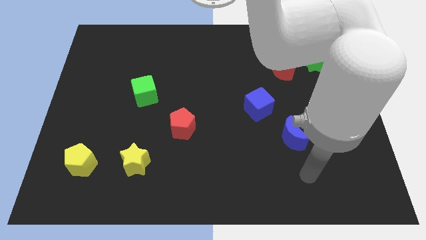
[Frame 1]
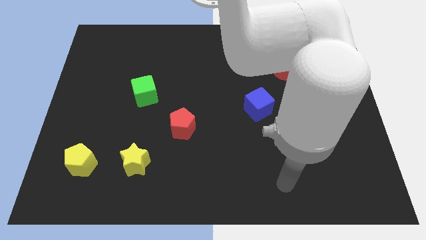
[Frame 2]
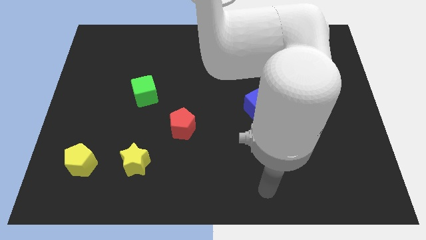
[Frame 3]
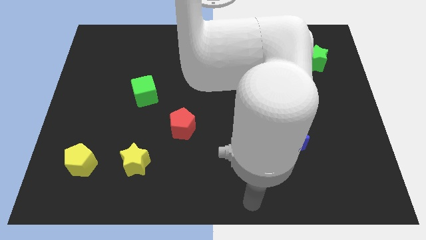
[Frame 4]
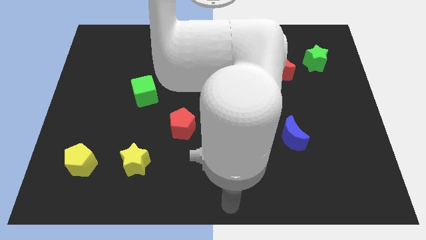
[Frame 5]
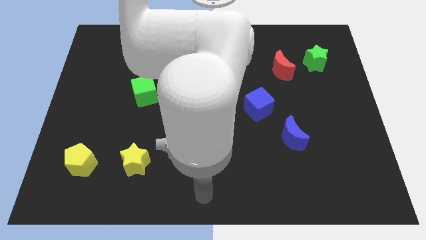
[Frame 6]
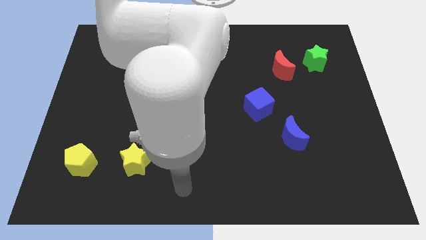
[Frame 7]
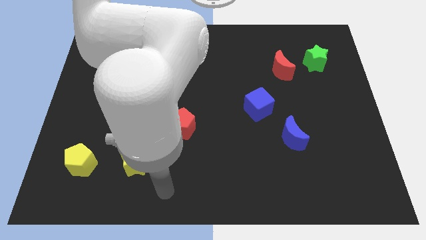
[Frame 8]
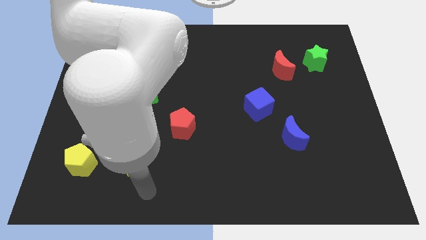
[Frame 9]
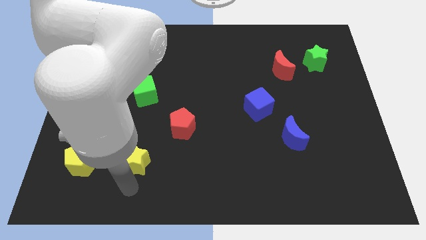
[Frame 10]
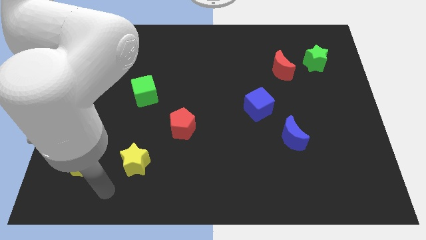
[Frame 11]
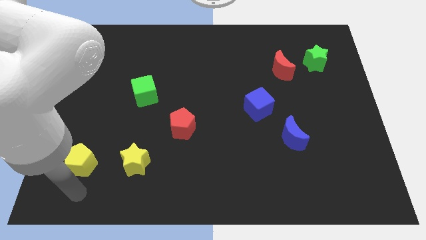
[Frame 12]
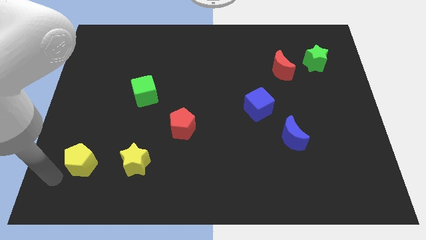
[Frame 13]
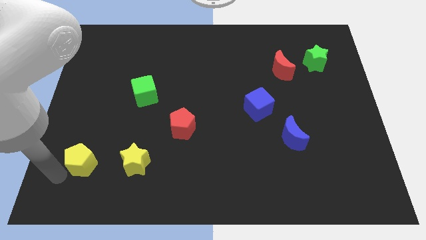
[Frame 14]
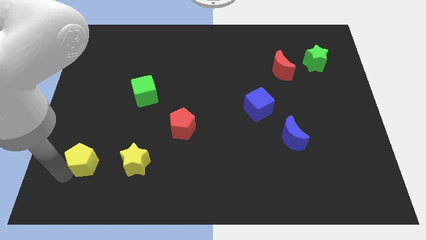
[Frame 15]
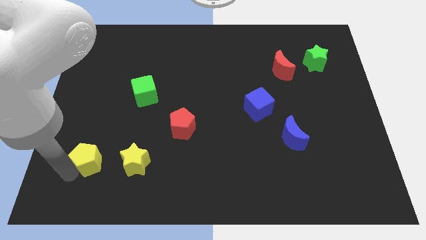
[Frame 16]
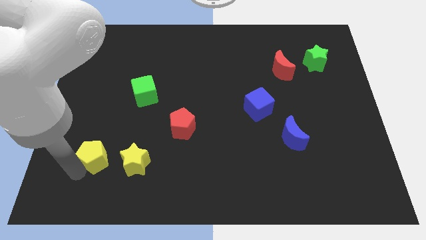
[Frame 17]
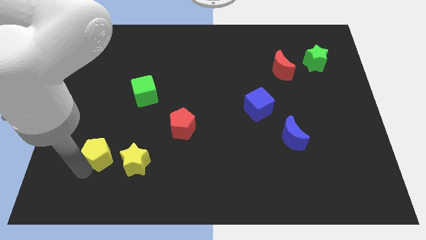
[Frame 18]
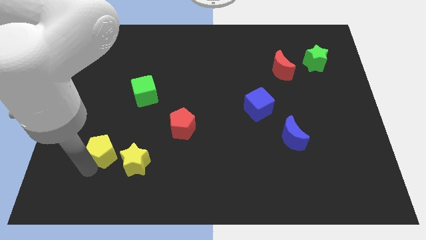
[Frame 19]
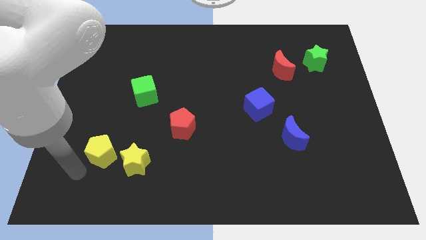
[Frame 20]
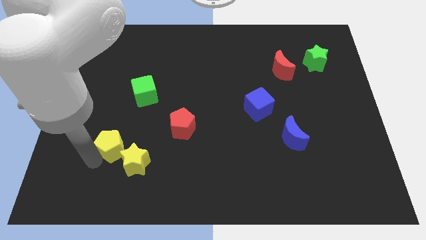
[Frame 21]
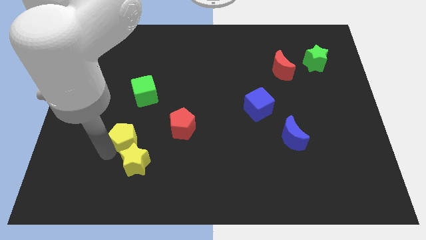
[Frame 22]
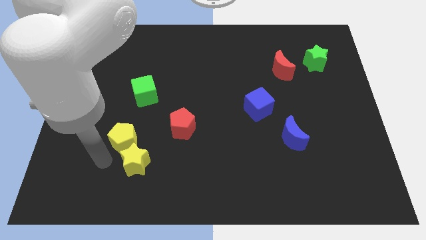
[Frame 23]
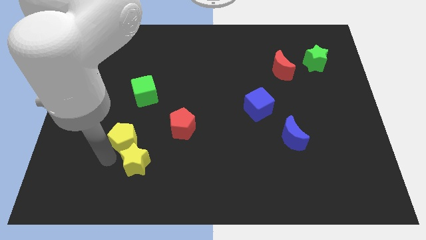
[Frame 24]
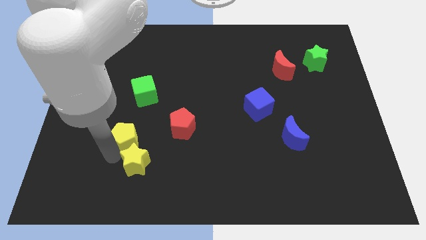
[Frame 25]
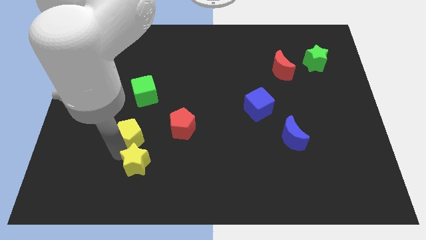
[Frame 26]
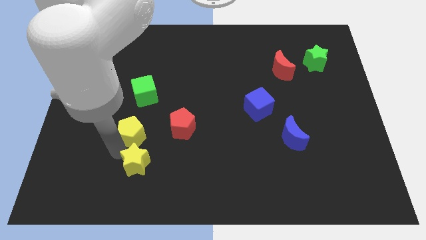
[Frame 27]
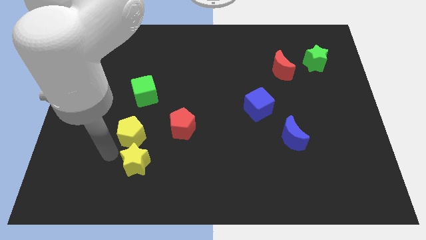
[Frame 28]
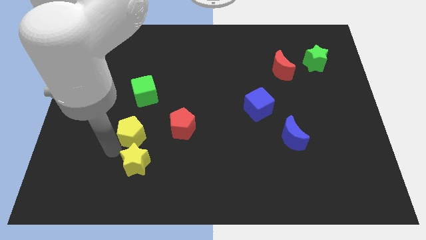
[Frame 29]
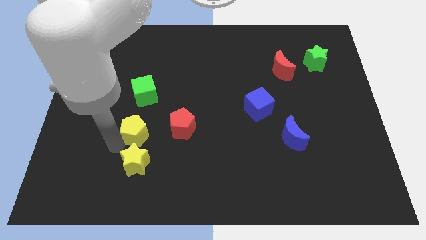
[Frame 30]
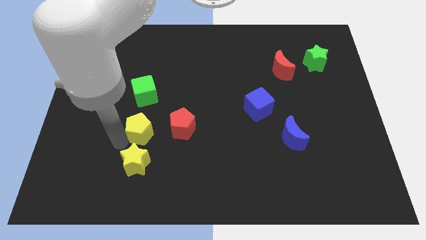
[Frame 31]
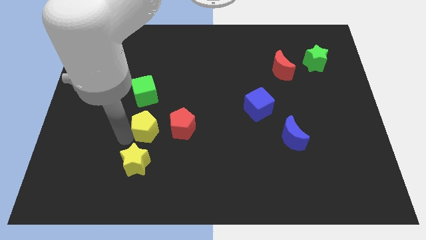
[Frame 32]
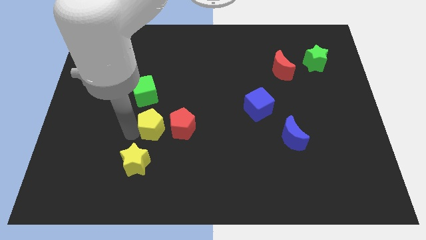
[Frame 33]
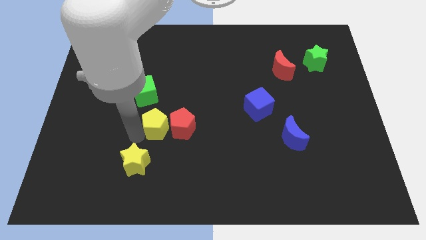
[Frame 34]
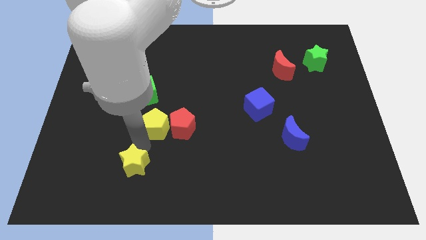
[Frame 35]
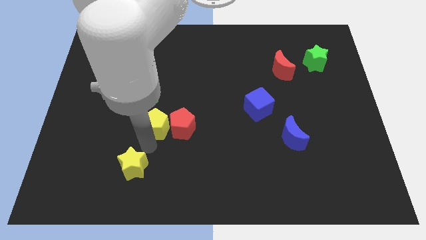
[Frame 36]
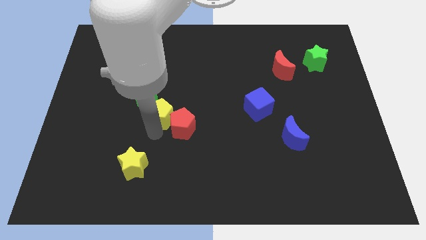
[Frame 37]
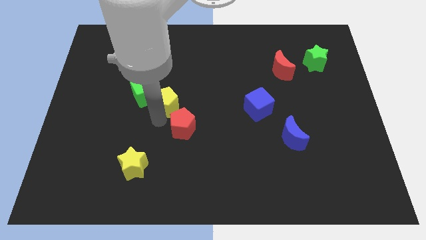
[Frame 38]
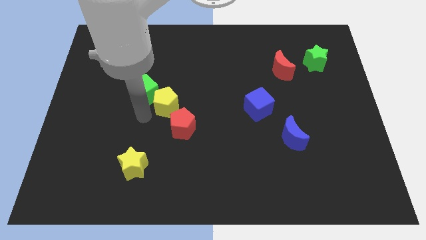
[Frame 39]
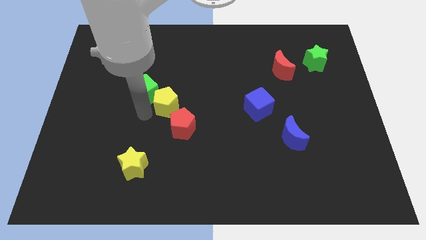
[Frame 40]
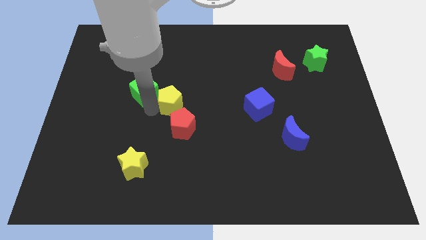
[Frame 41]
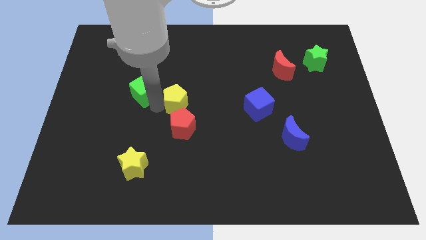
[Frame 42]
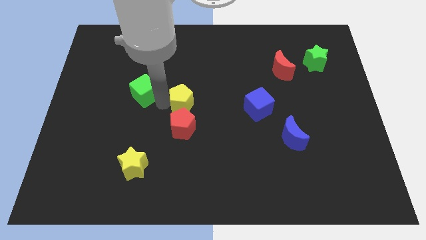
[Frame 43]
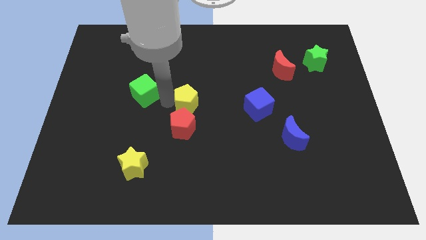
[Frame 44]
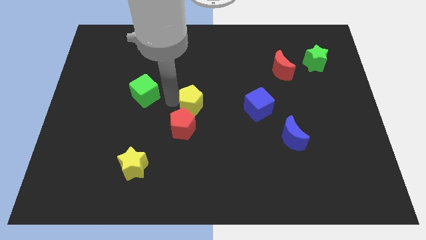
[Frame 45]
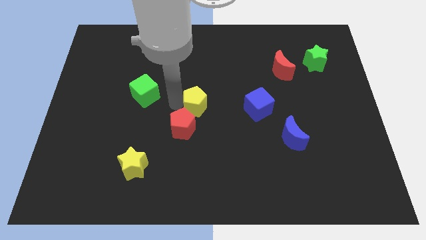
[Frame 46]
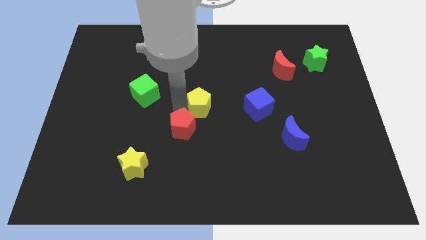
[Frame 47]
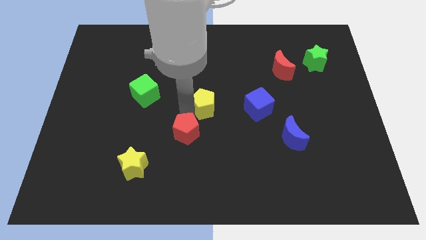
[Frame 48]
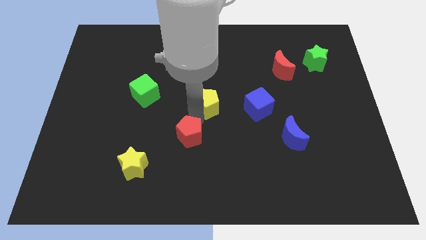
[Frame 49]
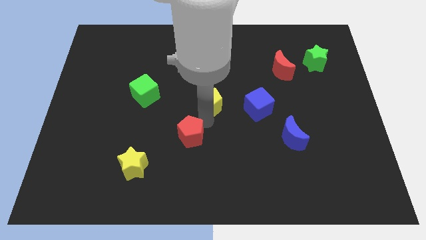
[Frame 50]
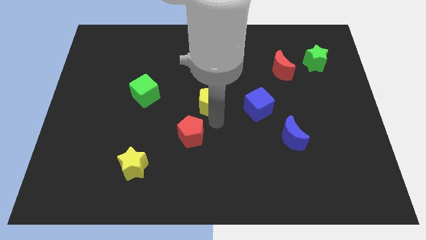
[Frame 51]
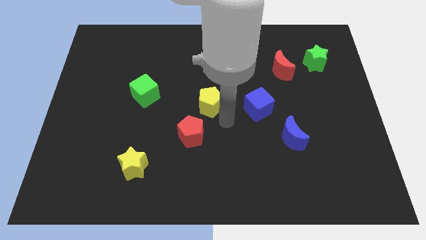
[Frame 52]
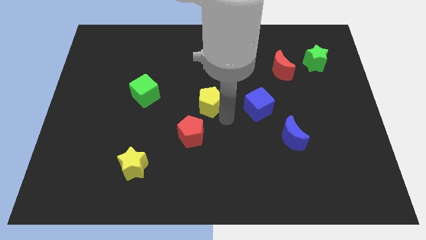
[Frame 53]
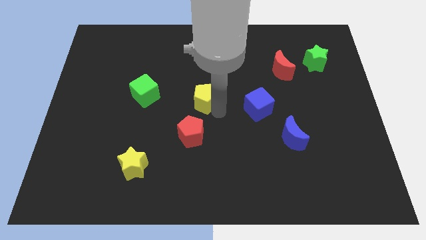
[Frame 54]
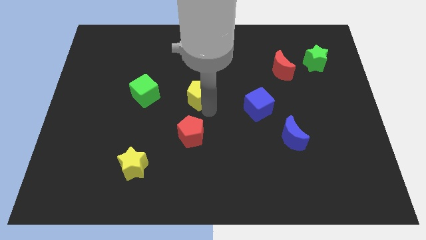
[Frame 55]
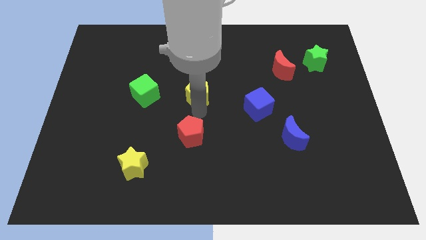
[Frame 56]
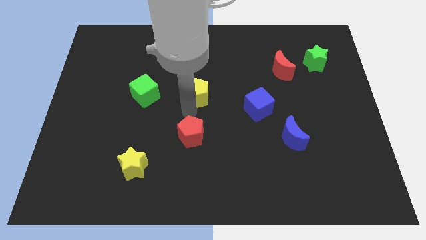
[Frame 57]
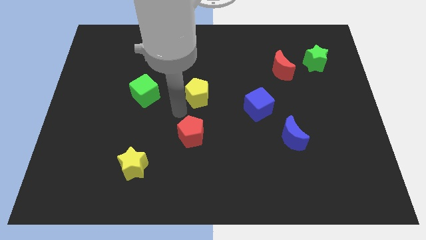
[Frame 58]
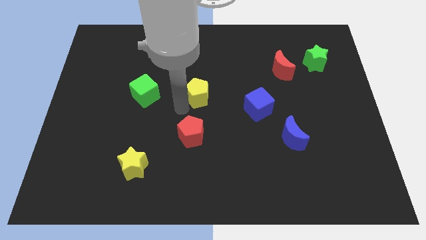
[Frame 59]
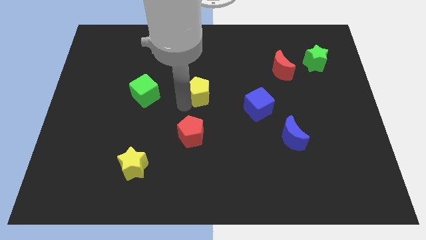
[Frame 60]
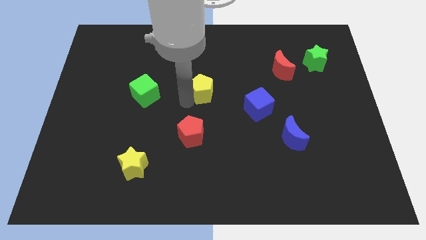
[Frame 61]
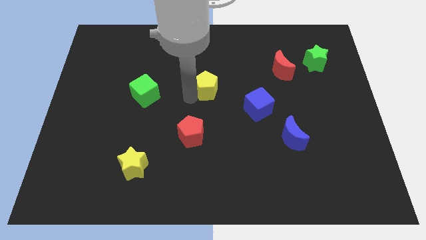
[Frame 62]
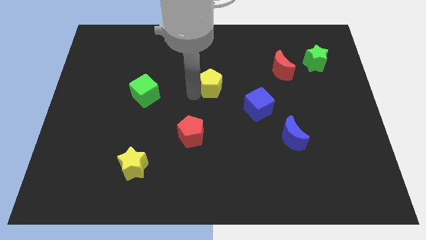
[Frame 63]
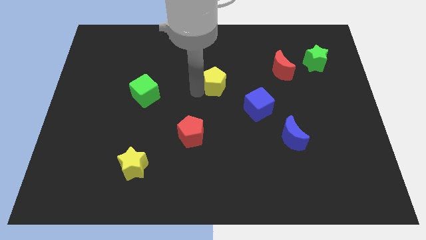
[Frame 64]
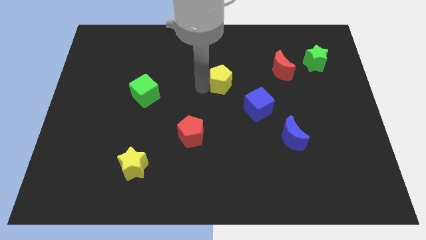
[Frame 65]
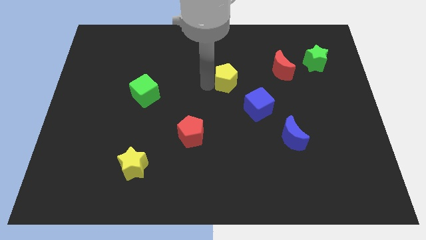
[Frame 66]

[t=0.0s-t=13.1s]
slide the yellow pentagon left of the red moon
